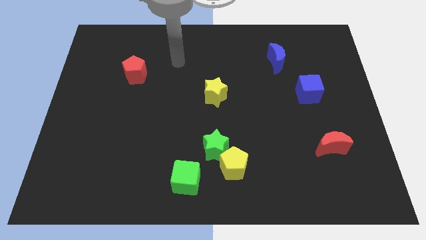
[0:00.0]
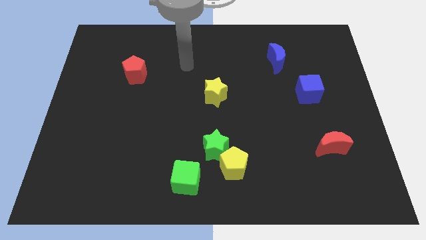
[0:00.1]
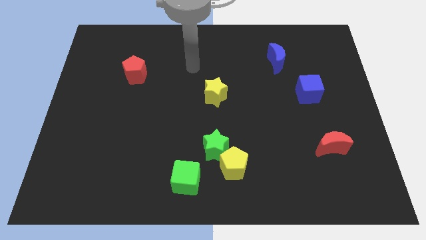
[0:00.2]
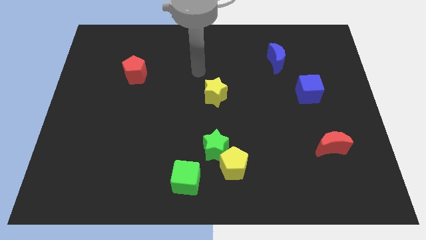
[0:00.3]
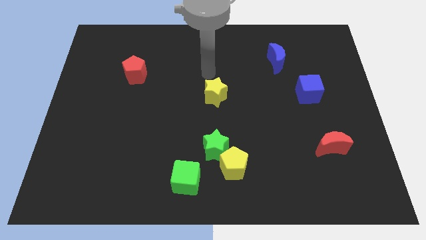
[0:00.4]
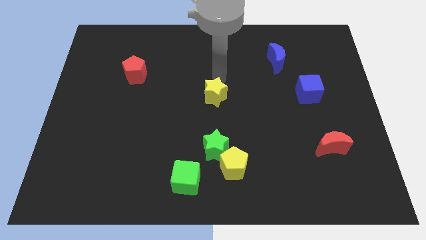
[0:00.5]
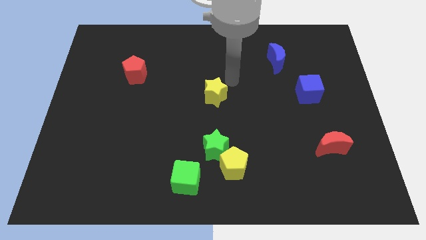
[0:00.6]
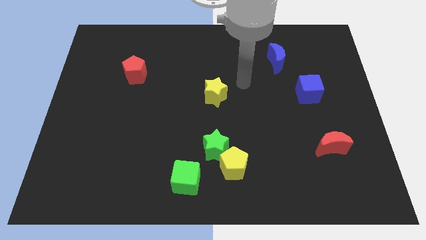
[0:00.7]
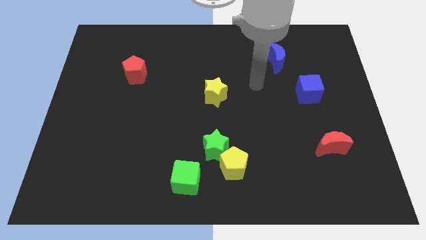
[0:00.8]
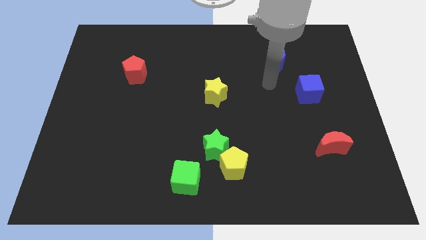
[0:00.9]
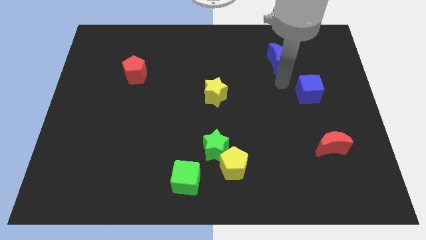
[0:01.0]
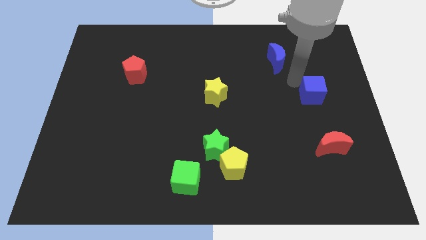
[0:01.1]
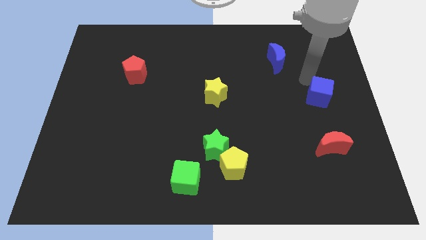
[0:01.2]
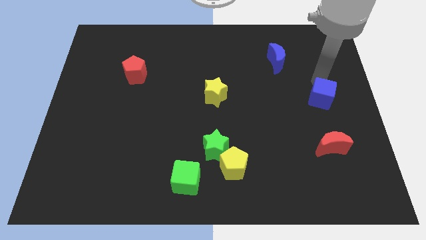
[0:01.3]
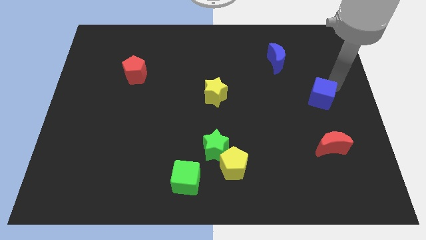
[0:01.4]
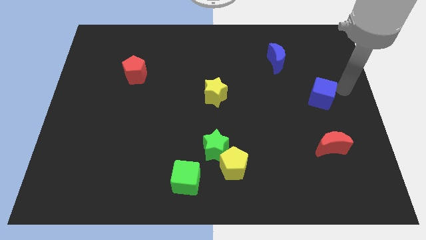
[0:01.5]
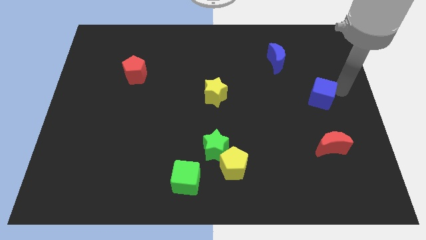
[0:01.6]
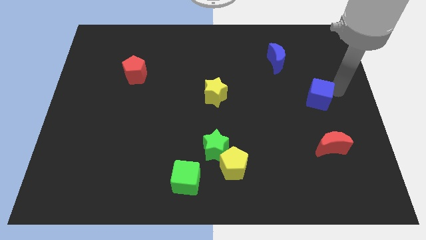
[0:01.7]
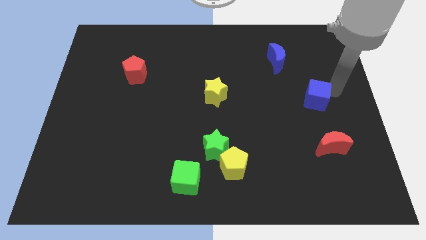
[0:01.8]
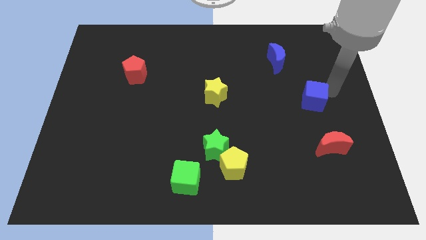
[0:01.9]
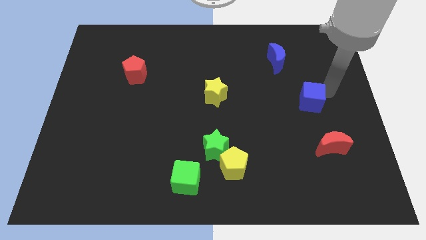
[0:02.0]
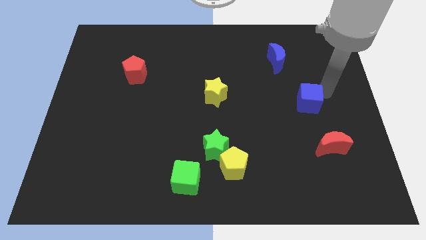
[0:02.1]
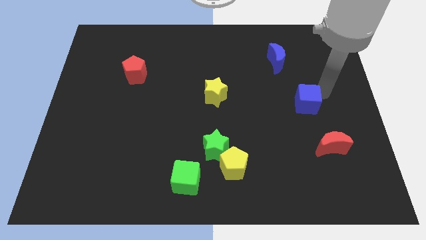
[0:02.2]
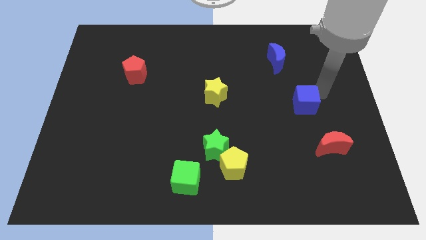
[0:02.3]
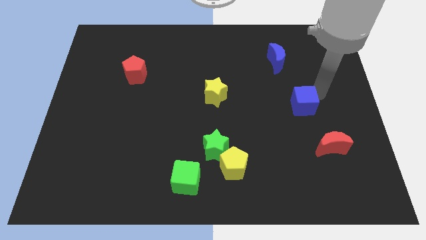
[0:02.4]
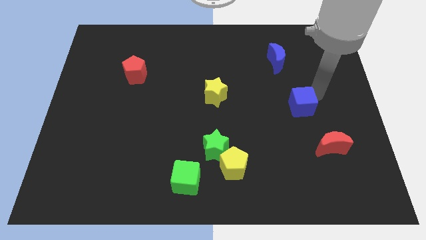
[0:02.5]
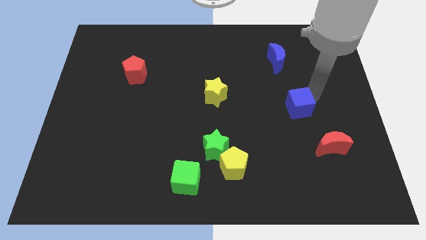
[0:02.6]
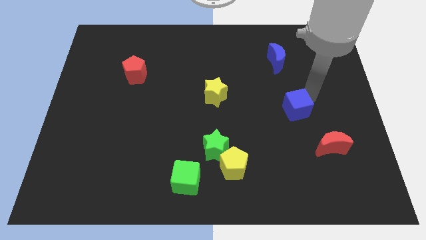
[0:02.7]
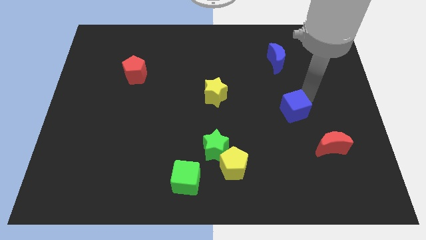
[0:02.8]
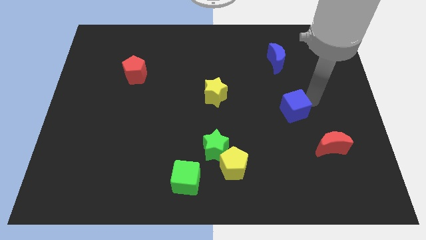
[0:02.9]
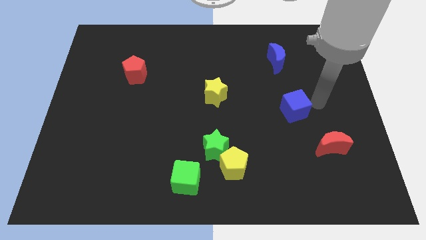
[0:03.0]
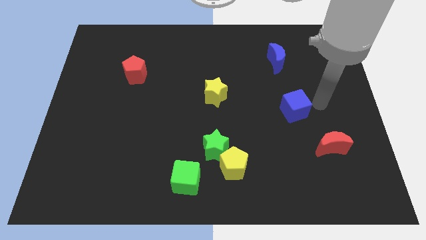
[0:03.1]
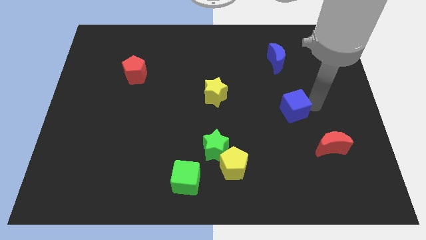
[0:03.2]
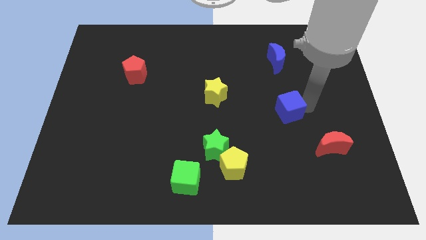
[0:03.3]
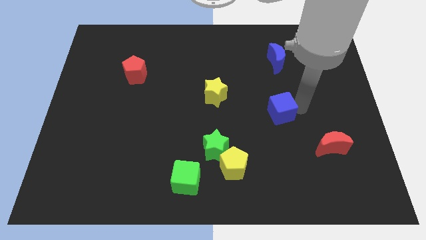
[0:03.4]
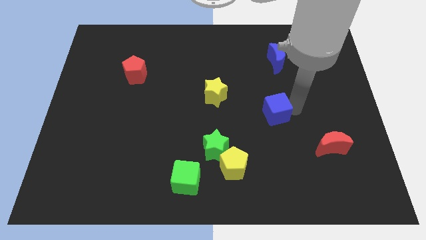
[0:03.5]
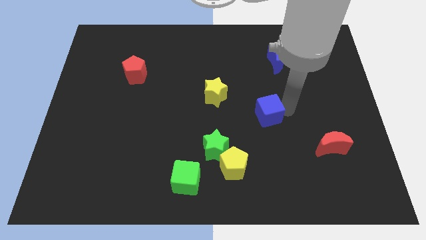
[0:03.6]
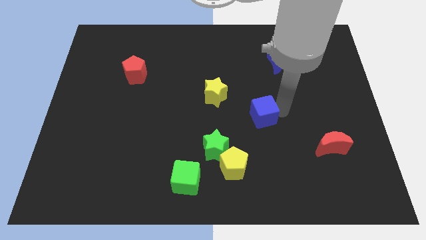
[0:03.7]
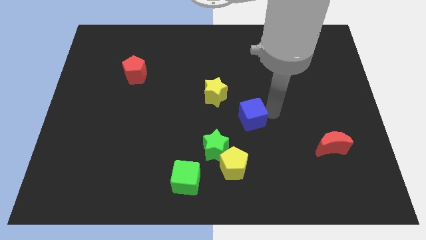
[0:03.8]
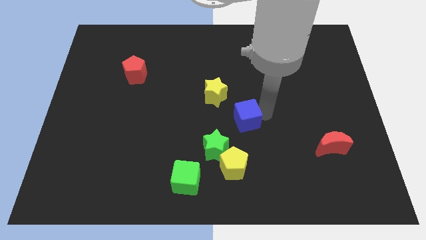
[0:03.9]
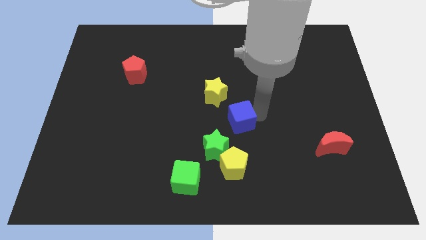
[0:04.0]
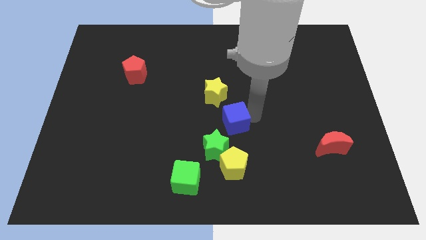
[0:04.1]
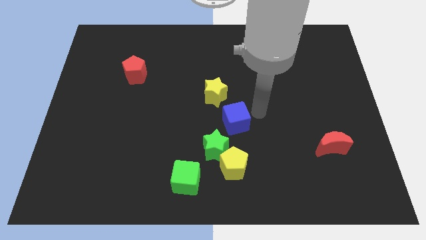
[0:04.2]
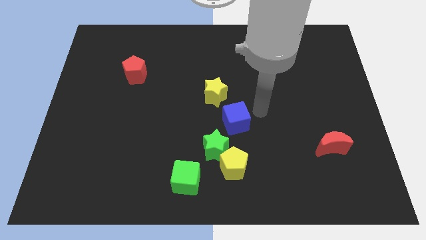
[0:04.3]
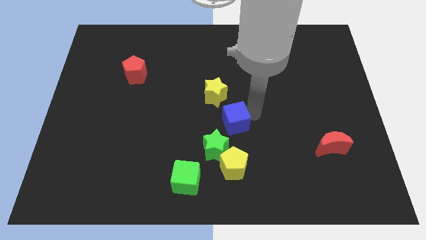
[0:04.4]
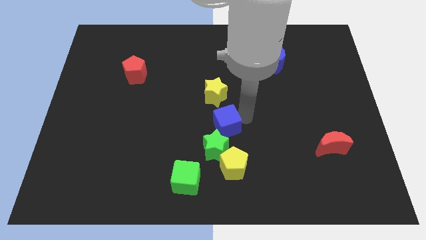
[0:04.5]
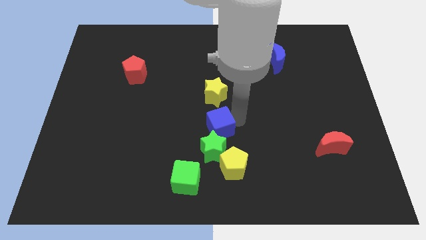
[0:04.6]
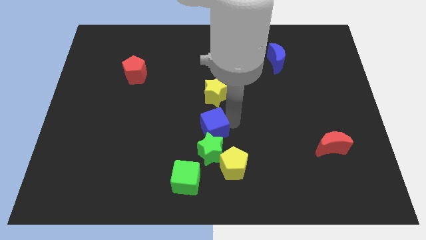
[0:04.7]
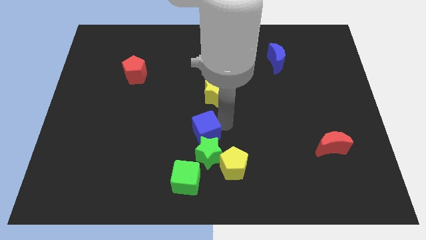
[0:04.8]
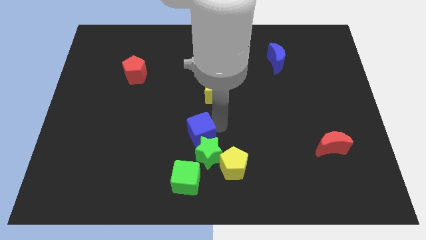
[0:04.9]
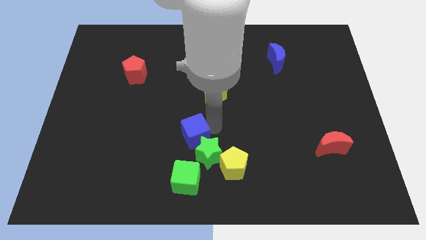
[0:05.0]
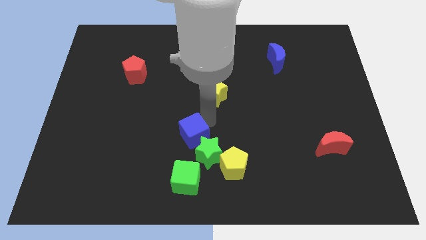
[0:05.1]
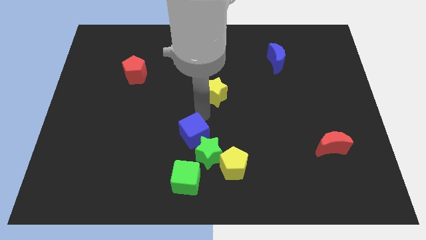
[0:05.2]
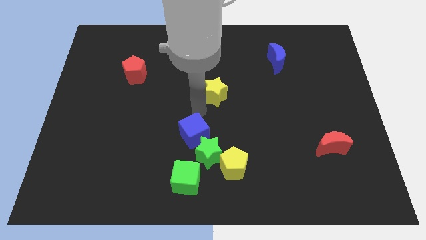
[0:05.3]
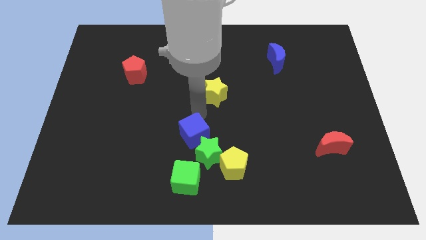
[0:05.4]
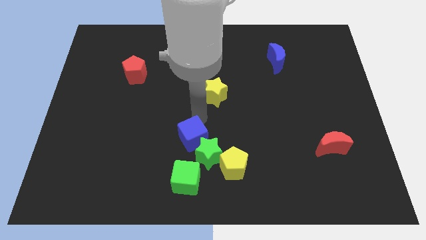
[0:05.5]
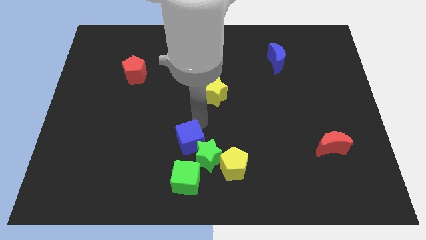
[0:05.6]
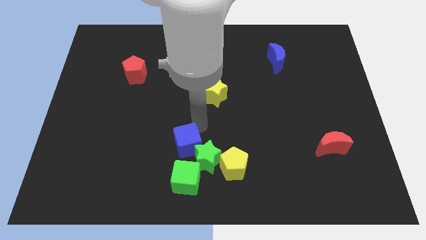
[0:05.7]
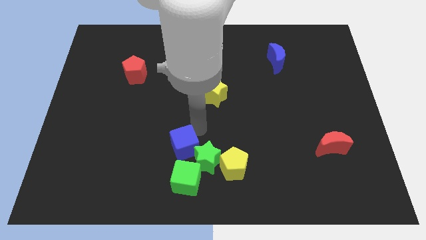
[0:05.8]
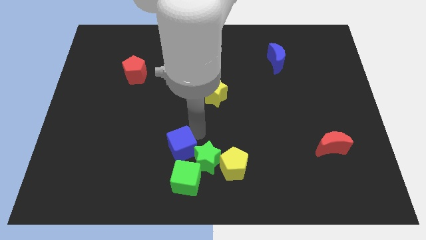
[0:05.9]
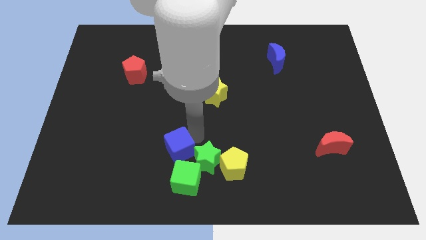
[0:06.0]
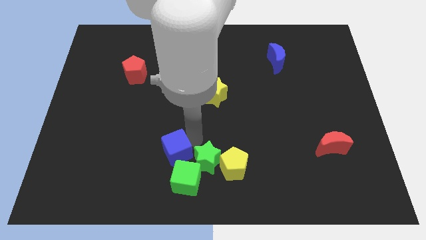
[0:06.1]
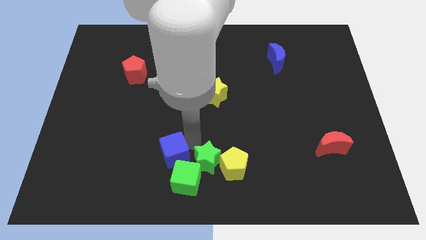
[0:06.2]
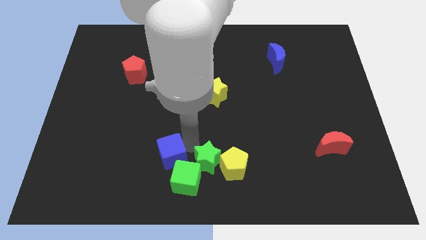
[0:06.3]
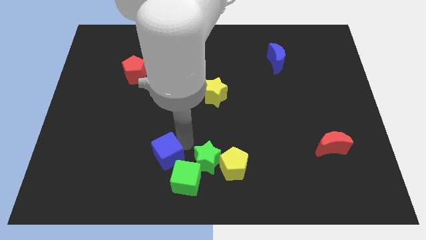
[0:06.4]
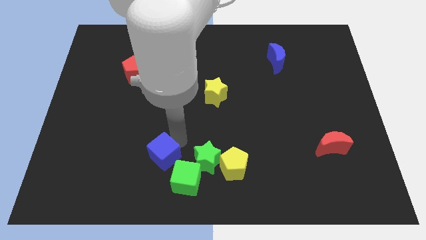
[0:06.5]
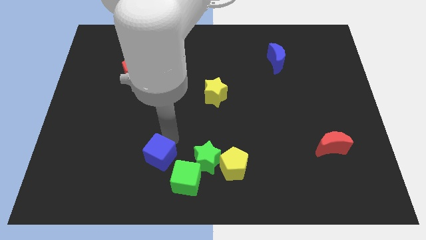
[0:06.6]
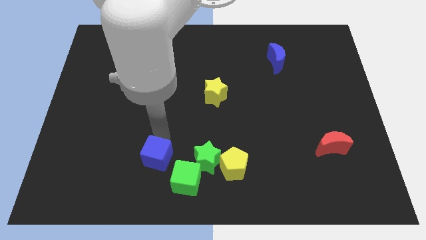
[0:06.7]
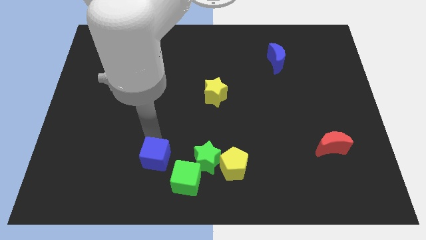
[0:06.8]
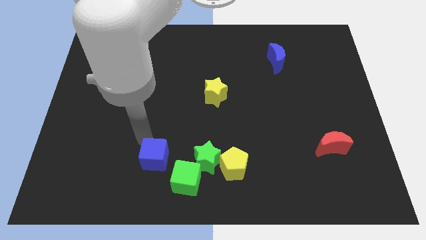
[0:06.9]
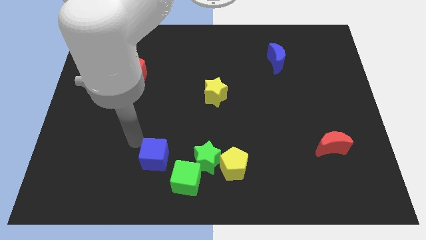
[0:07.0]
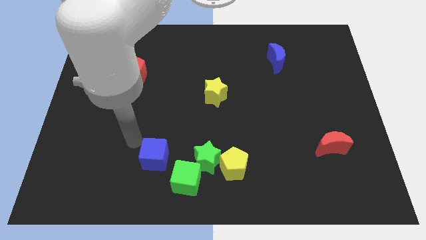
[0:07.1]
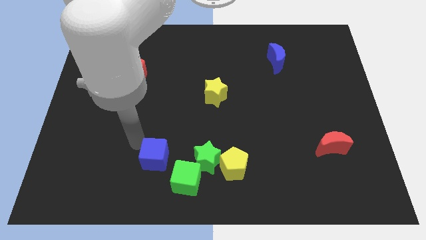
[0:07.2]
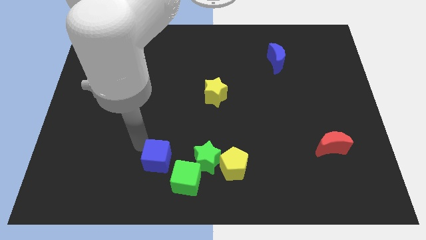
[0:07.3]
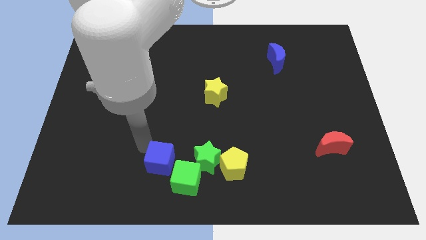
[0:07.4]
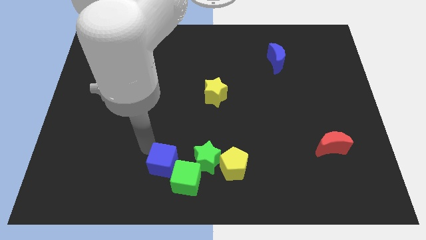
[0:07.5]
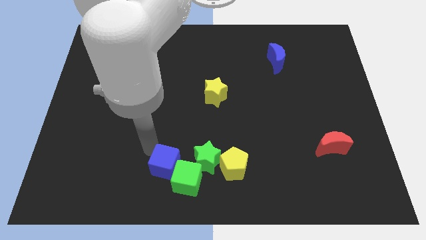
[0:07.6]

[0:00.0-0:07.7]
put the blue cube towards the green cube
